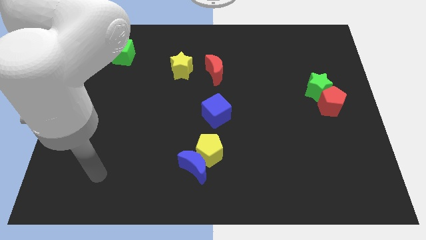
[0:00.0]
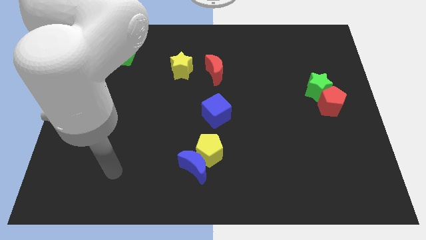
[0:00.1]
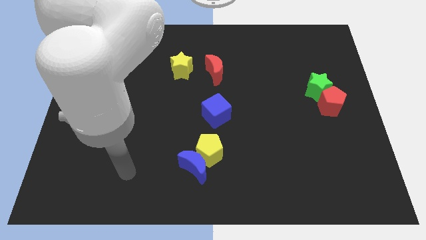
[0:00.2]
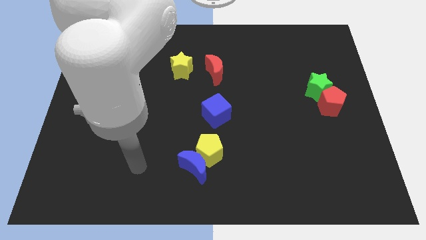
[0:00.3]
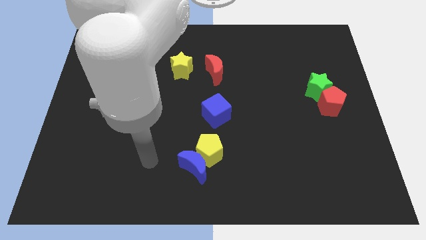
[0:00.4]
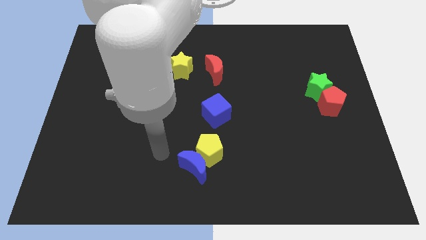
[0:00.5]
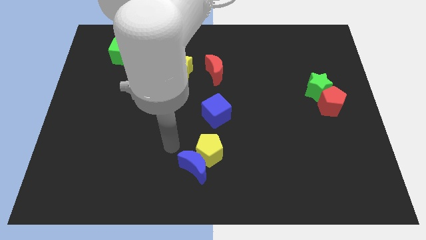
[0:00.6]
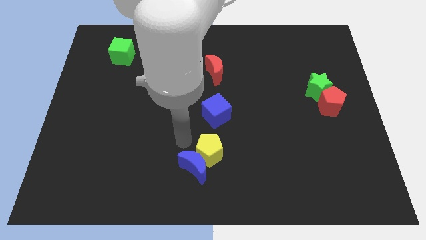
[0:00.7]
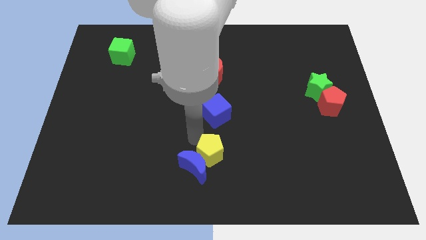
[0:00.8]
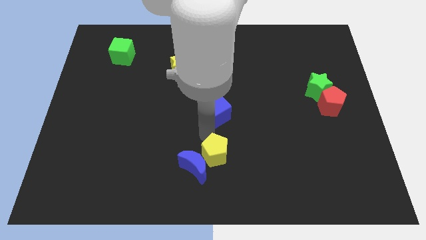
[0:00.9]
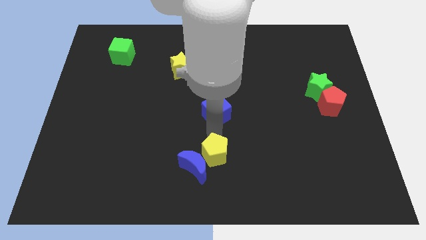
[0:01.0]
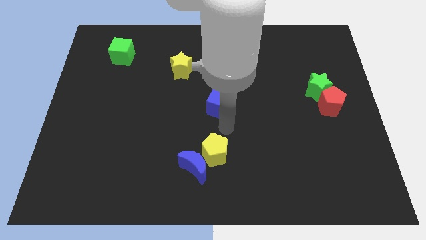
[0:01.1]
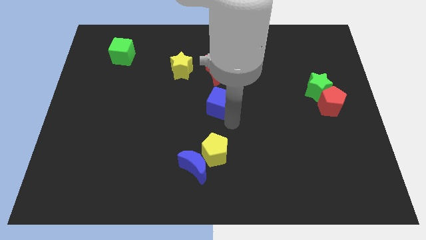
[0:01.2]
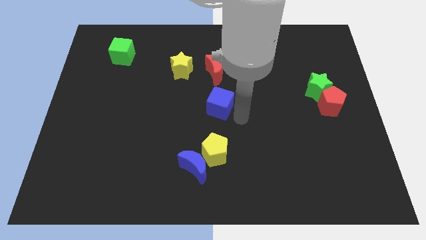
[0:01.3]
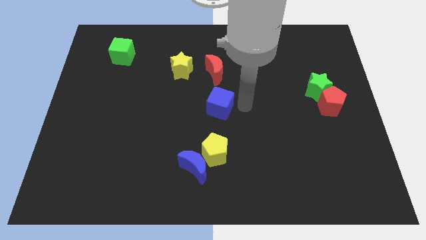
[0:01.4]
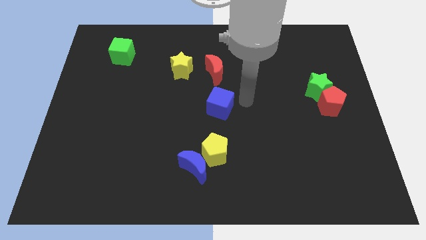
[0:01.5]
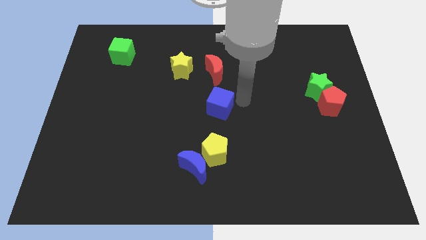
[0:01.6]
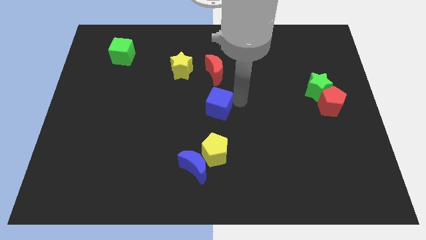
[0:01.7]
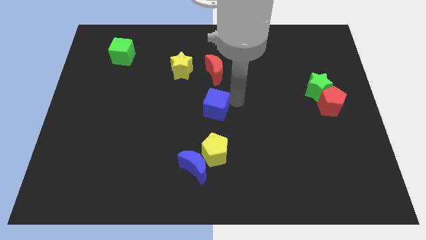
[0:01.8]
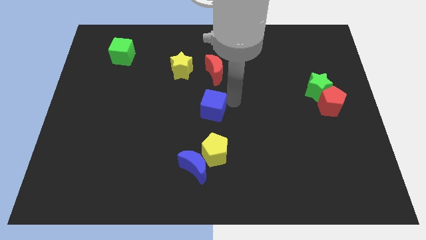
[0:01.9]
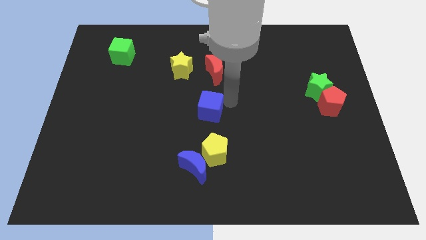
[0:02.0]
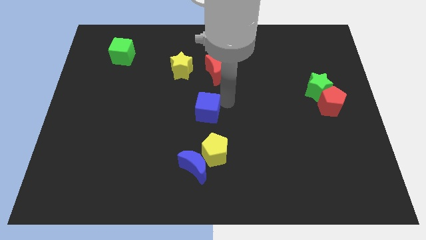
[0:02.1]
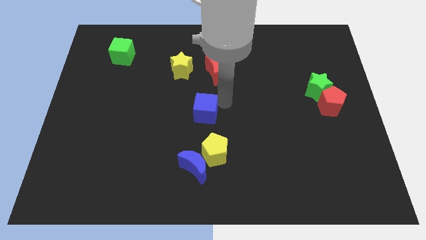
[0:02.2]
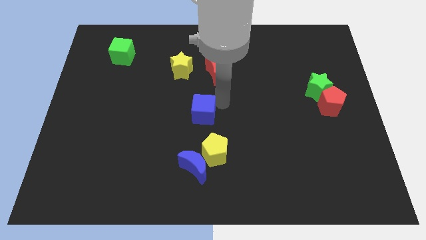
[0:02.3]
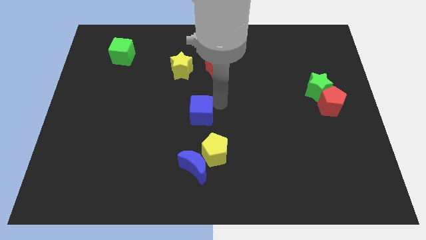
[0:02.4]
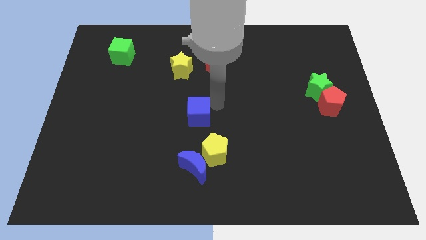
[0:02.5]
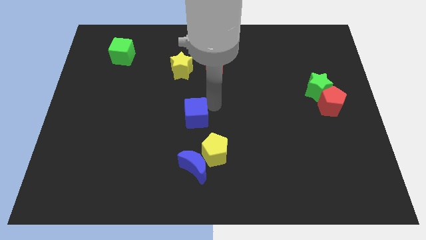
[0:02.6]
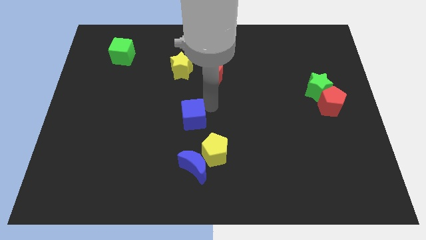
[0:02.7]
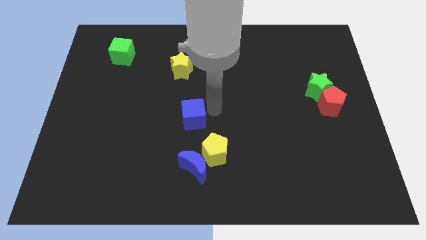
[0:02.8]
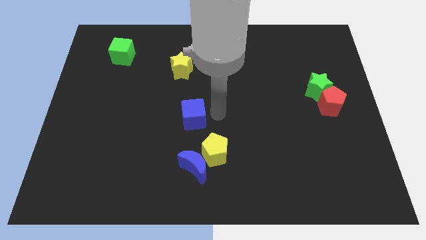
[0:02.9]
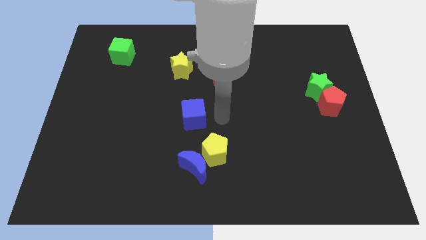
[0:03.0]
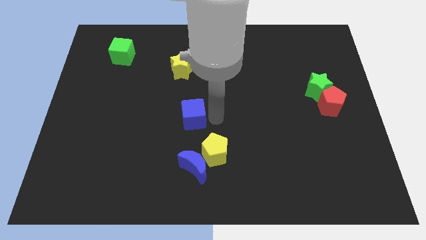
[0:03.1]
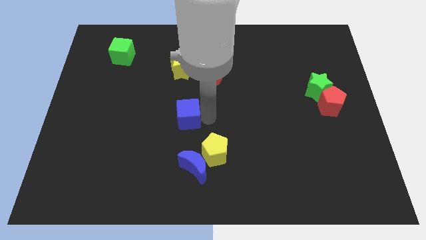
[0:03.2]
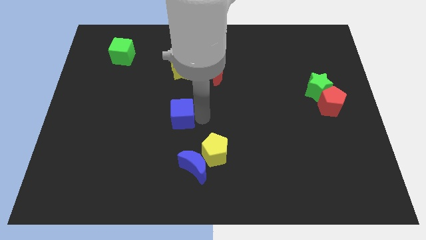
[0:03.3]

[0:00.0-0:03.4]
slightly move the blue cube left

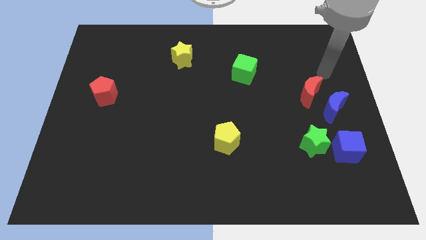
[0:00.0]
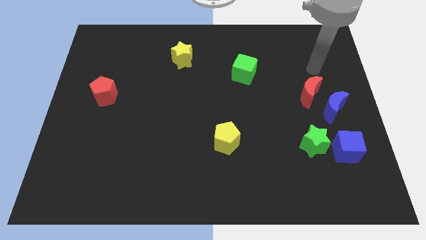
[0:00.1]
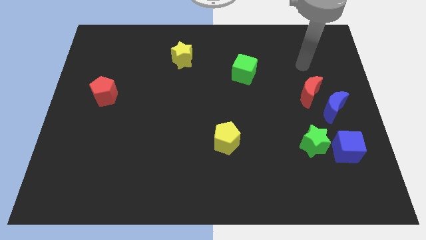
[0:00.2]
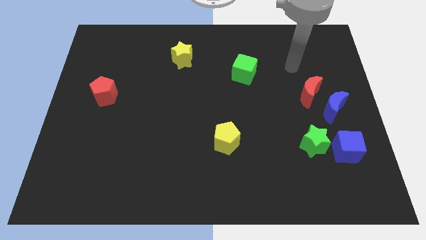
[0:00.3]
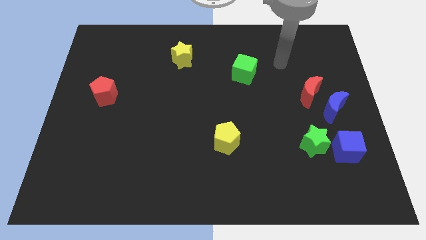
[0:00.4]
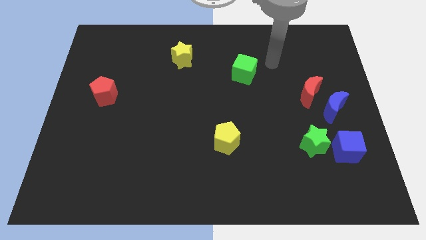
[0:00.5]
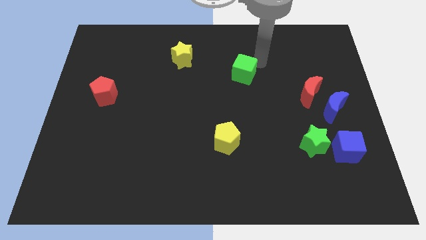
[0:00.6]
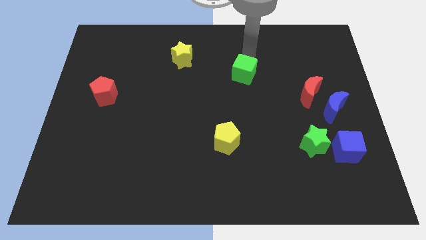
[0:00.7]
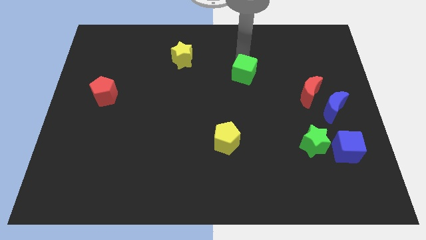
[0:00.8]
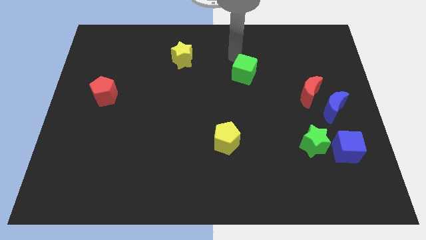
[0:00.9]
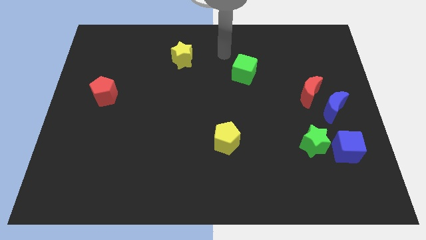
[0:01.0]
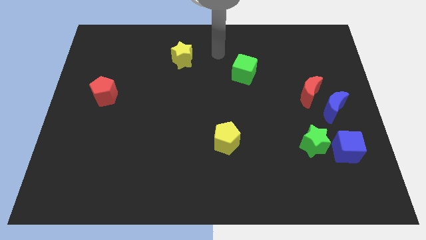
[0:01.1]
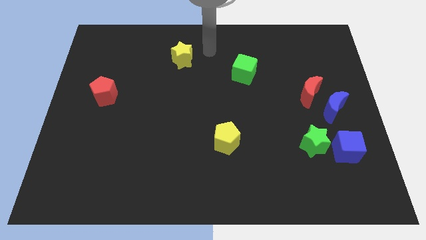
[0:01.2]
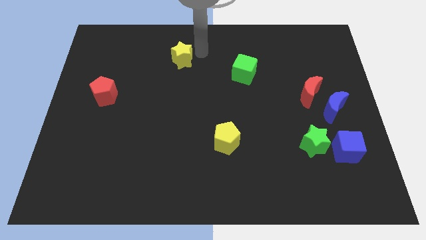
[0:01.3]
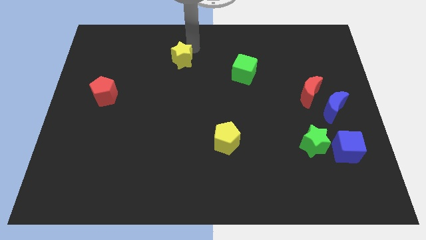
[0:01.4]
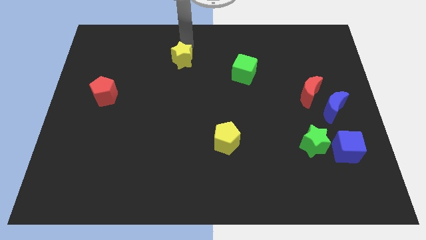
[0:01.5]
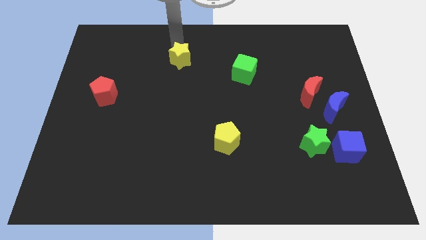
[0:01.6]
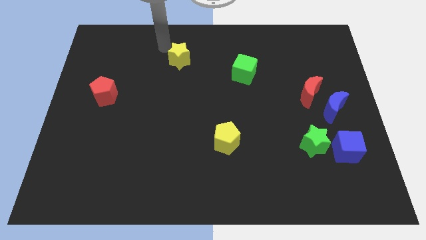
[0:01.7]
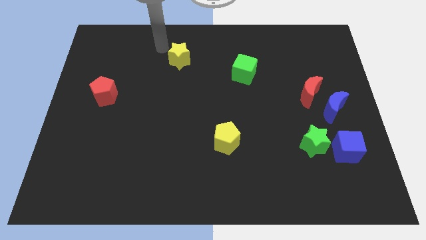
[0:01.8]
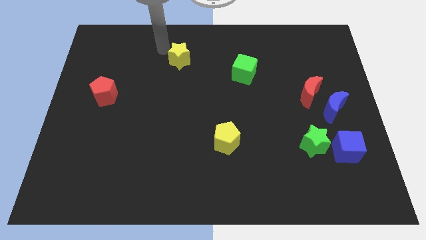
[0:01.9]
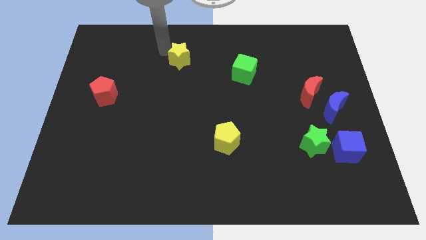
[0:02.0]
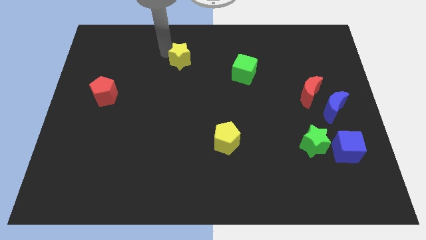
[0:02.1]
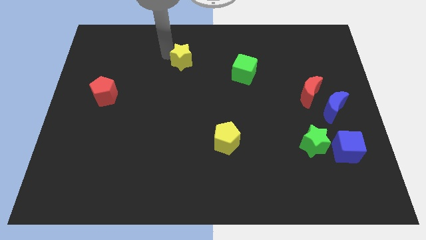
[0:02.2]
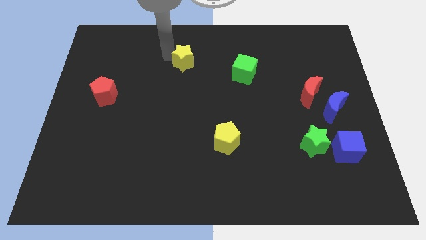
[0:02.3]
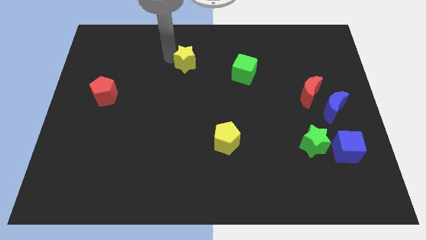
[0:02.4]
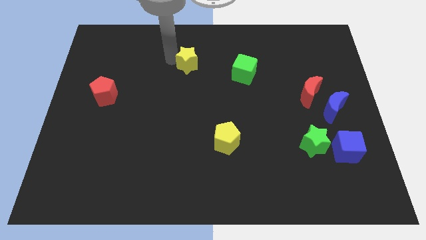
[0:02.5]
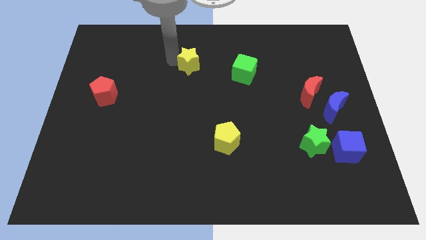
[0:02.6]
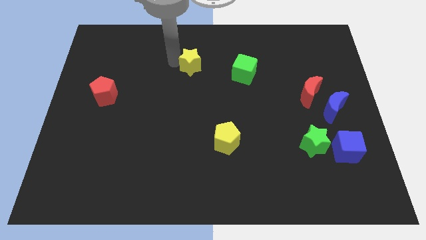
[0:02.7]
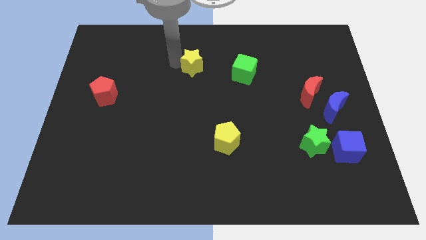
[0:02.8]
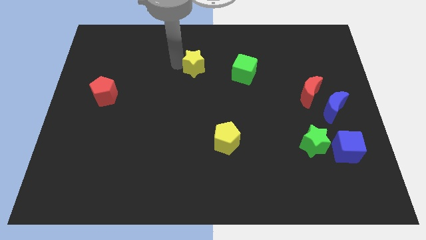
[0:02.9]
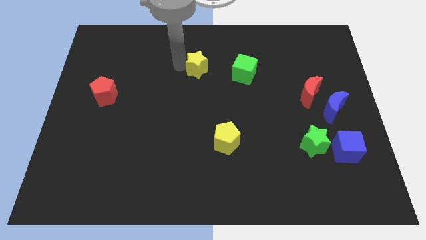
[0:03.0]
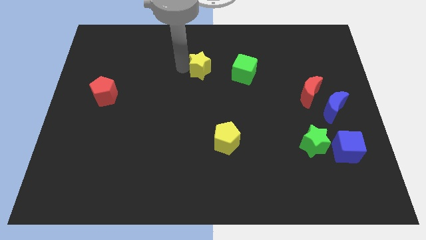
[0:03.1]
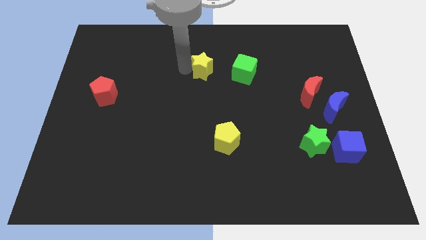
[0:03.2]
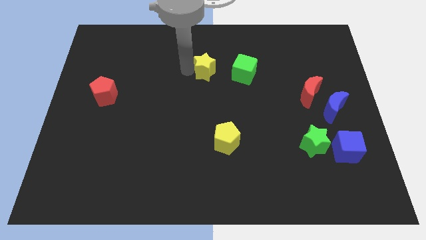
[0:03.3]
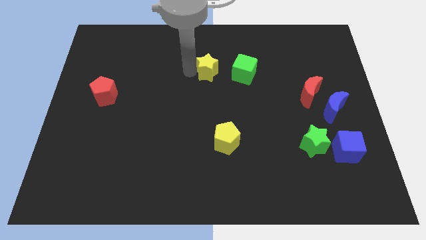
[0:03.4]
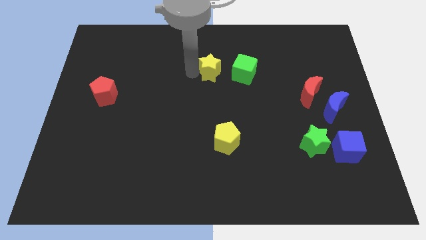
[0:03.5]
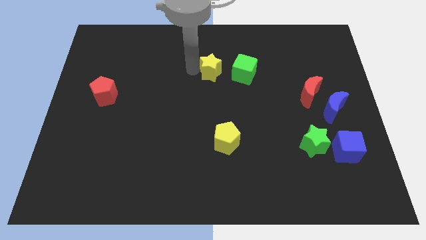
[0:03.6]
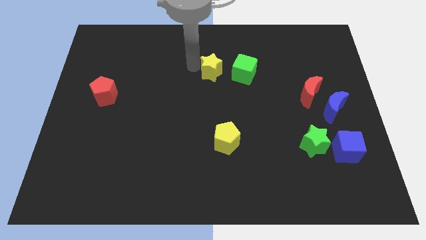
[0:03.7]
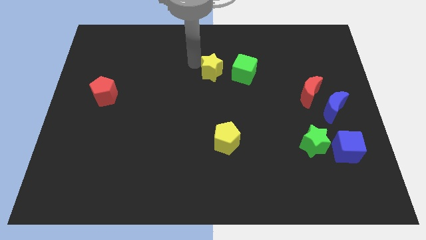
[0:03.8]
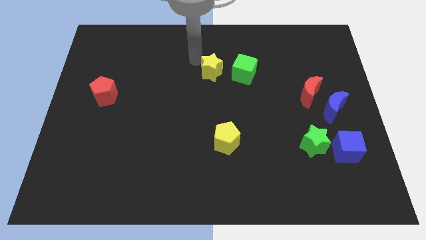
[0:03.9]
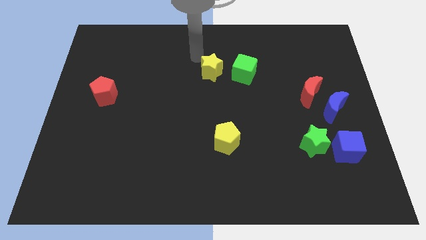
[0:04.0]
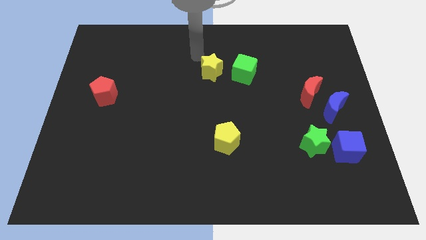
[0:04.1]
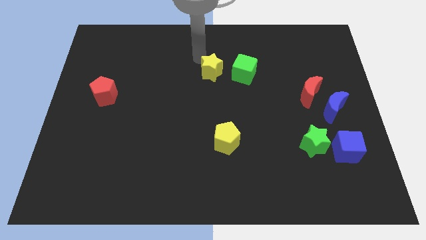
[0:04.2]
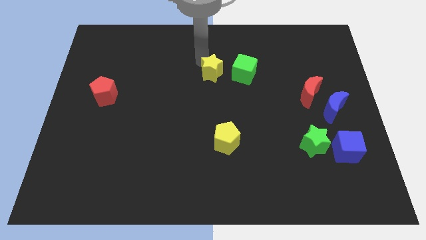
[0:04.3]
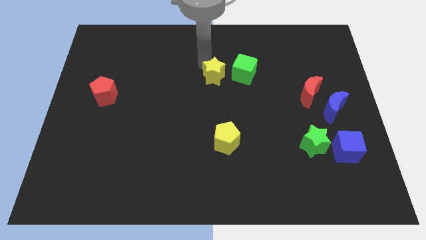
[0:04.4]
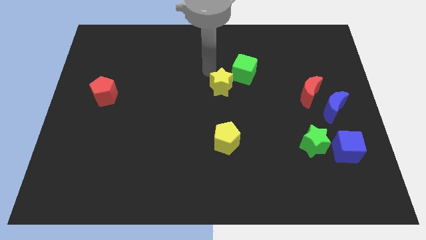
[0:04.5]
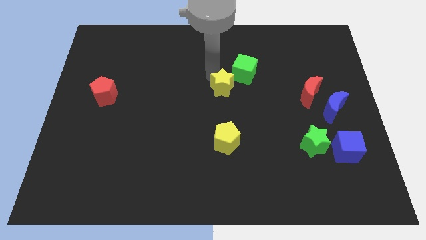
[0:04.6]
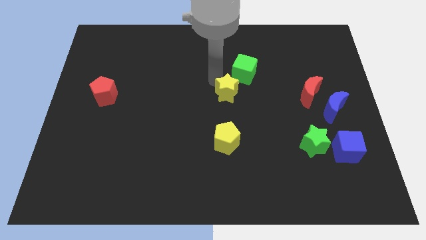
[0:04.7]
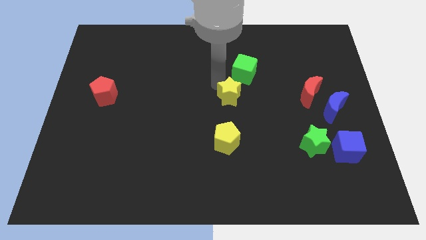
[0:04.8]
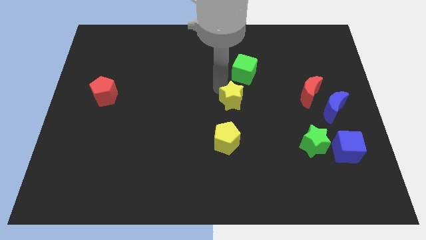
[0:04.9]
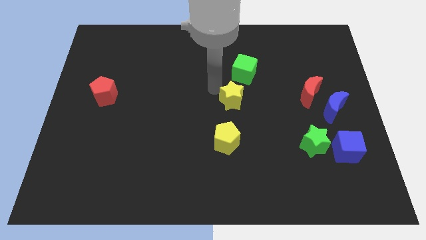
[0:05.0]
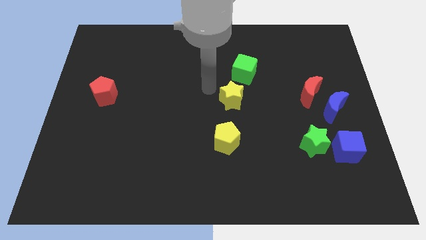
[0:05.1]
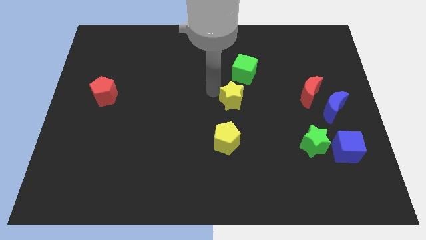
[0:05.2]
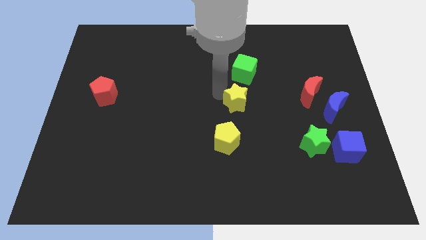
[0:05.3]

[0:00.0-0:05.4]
slide the yellow star diagonally downwards and to the right
